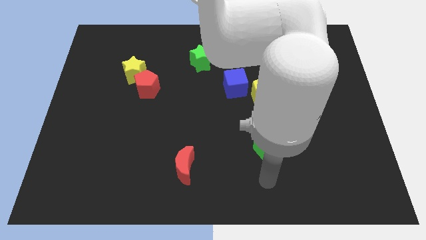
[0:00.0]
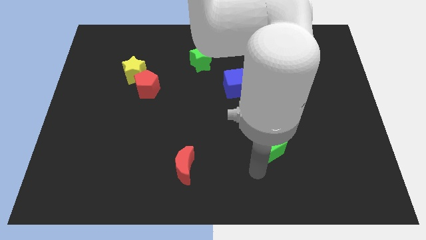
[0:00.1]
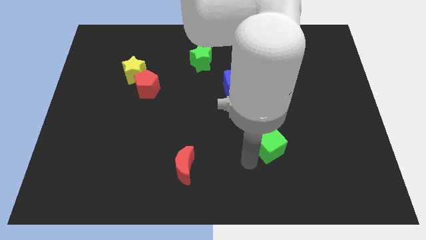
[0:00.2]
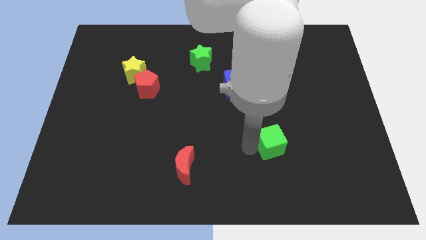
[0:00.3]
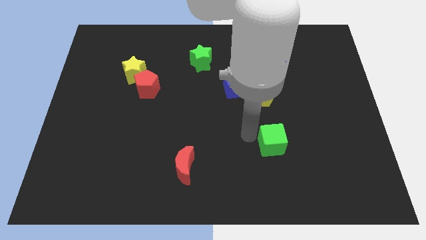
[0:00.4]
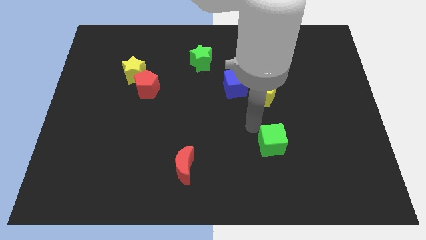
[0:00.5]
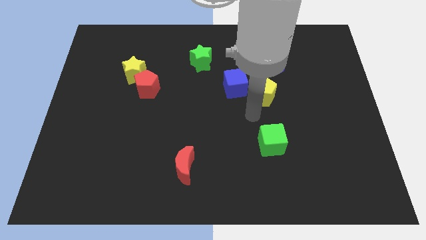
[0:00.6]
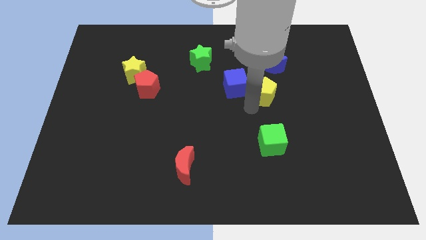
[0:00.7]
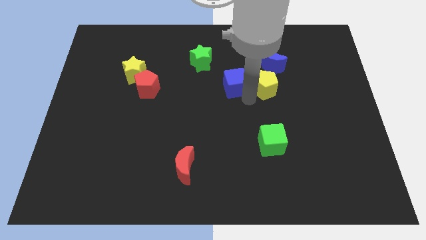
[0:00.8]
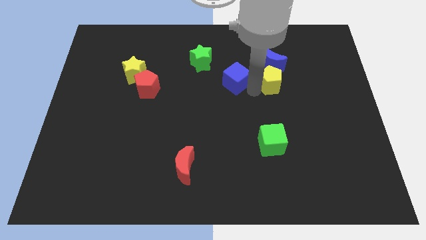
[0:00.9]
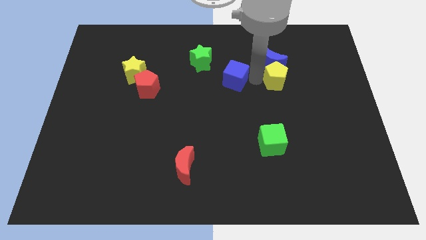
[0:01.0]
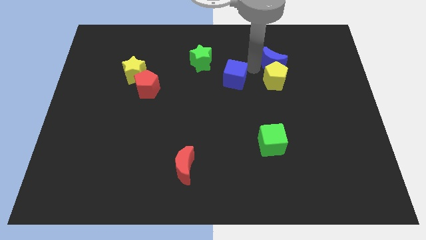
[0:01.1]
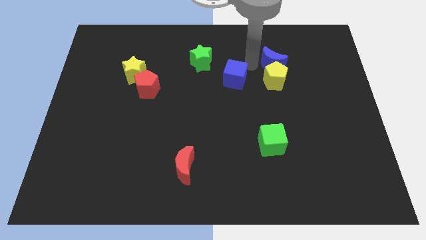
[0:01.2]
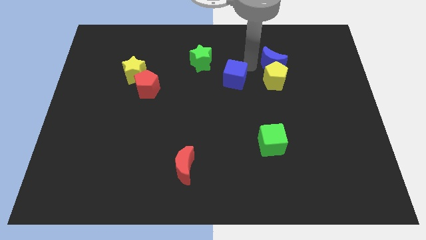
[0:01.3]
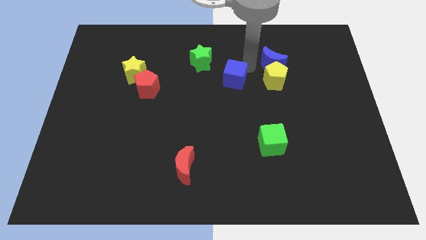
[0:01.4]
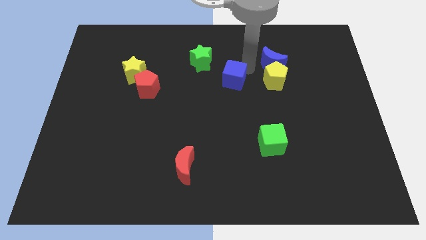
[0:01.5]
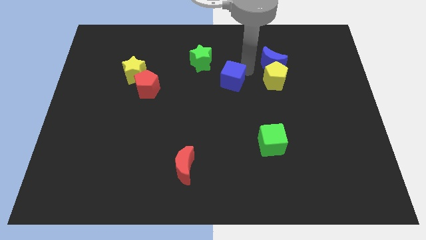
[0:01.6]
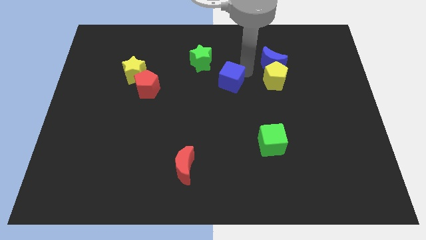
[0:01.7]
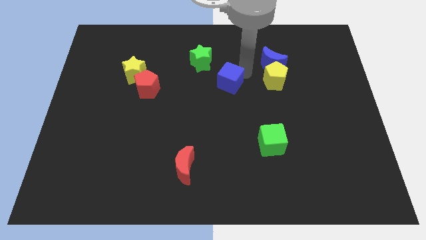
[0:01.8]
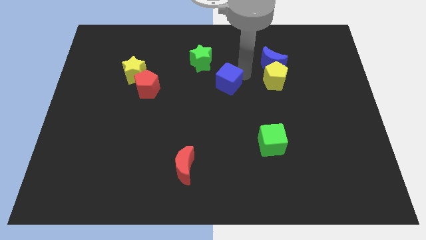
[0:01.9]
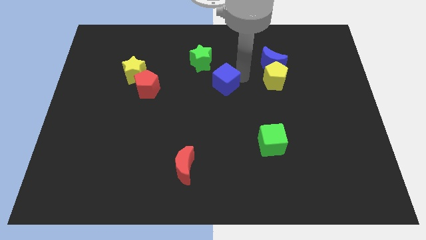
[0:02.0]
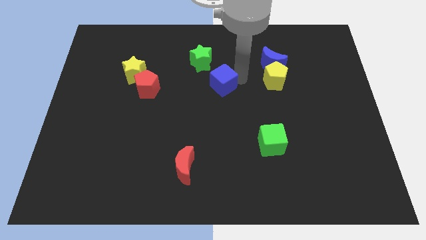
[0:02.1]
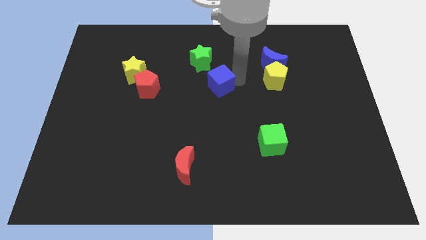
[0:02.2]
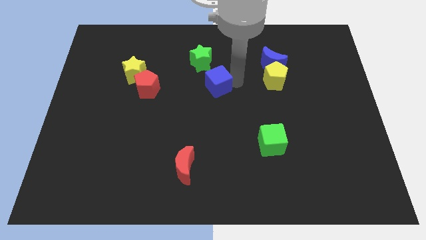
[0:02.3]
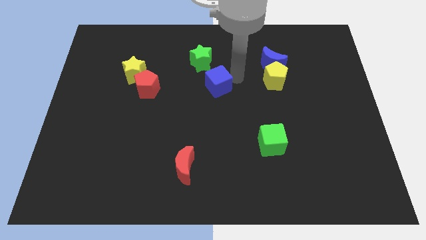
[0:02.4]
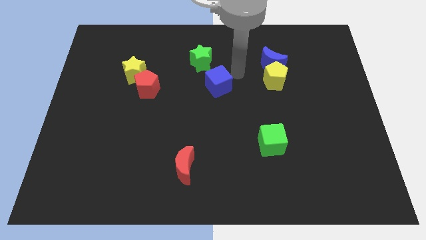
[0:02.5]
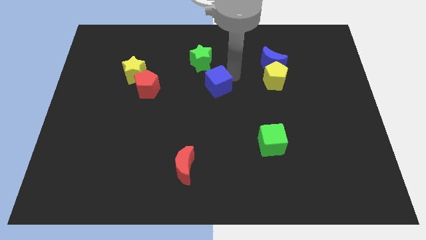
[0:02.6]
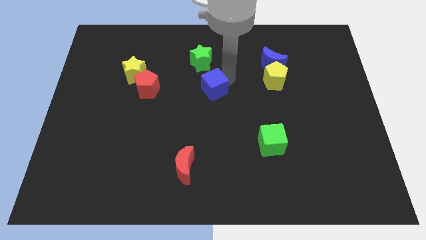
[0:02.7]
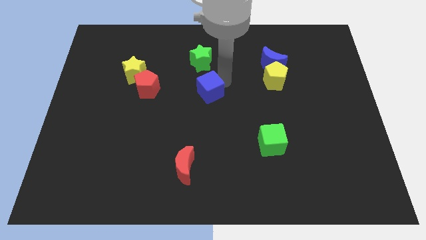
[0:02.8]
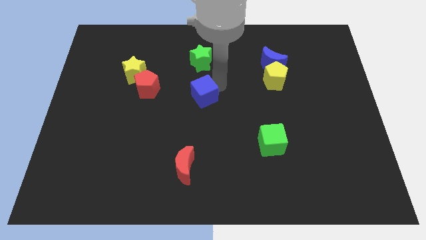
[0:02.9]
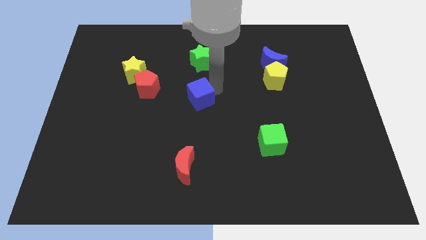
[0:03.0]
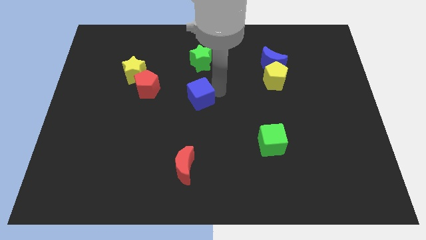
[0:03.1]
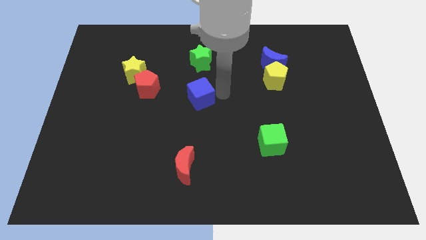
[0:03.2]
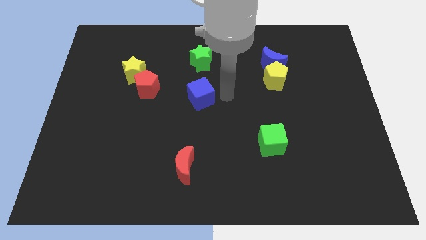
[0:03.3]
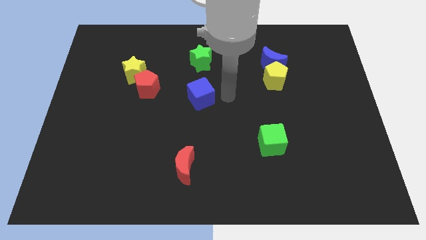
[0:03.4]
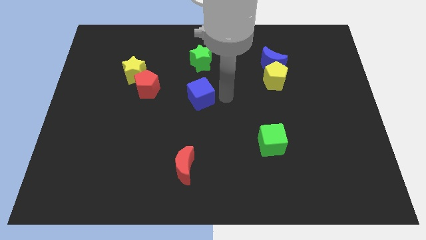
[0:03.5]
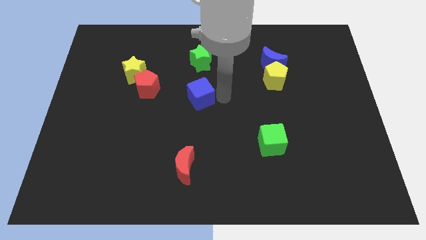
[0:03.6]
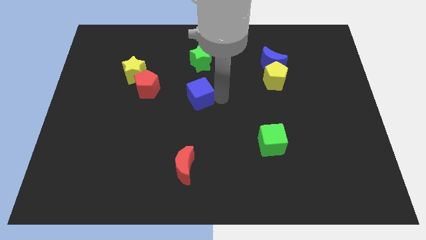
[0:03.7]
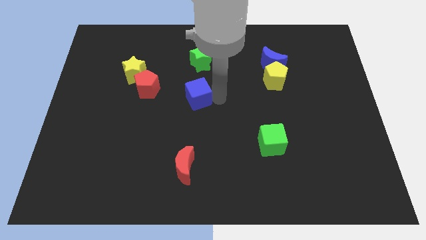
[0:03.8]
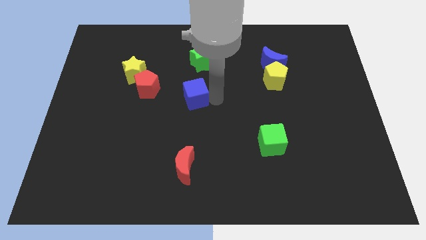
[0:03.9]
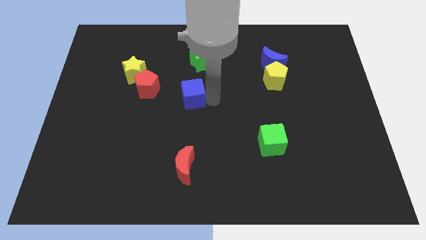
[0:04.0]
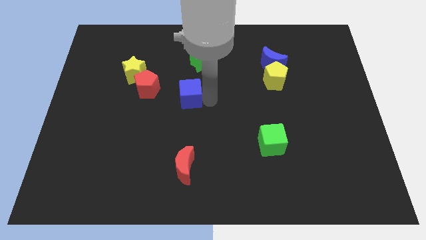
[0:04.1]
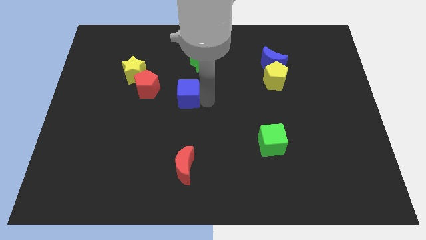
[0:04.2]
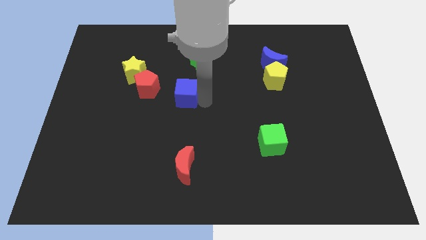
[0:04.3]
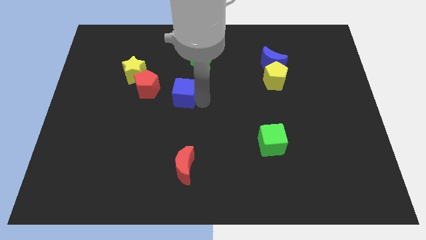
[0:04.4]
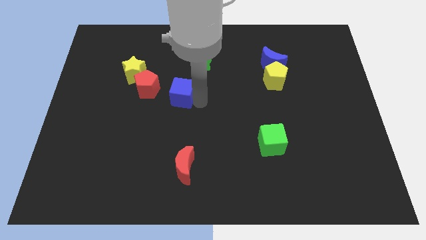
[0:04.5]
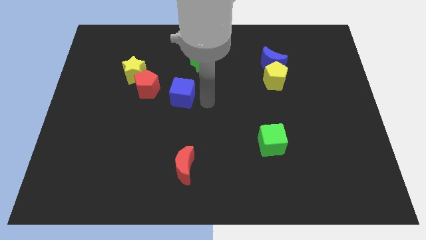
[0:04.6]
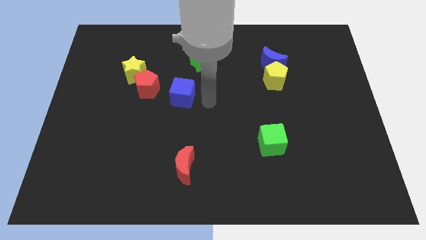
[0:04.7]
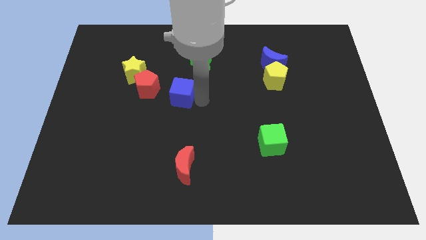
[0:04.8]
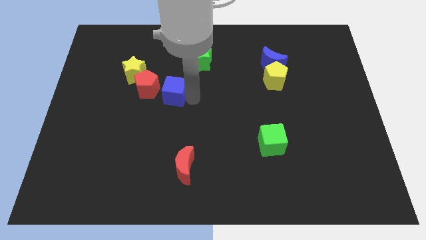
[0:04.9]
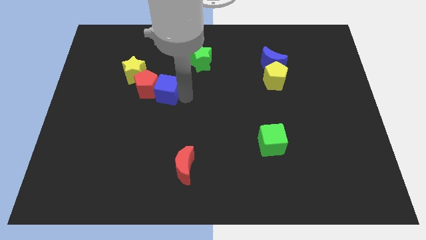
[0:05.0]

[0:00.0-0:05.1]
slide the blue cube next to the red pentagon

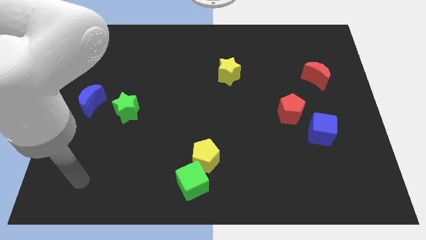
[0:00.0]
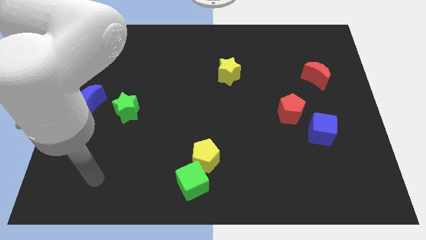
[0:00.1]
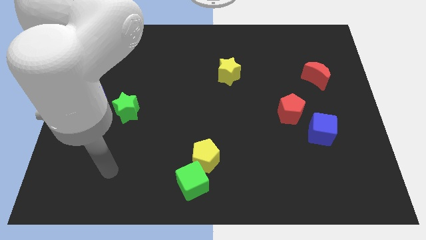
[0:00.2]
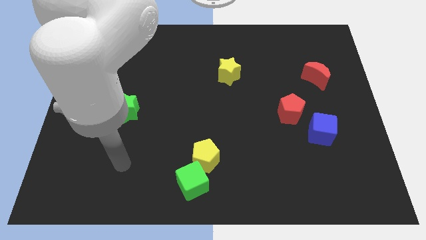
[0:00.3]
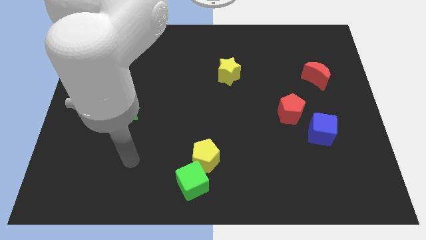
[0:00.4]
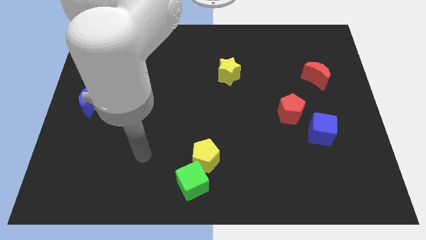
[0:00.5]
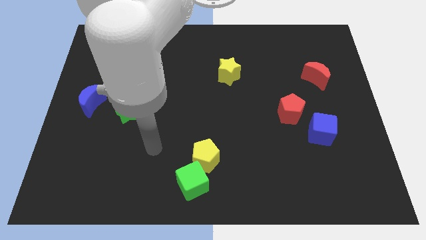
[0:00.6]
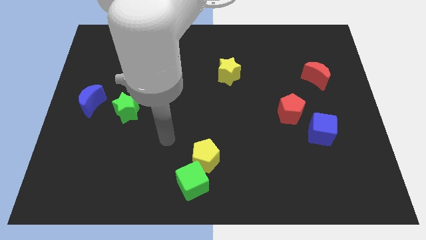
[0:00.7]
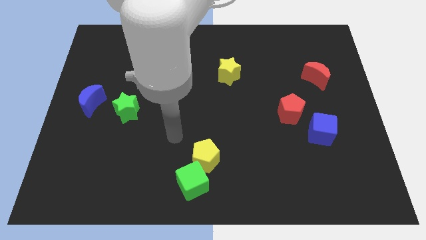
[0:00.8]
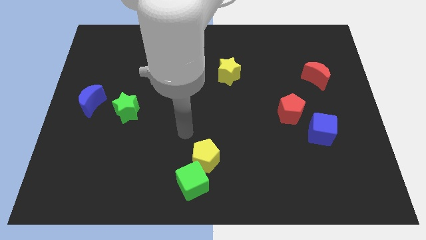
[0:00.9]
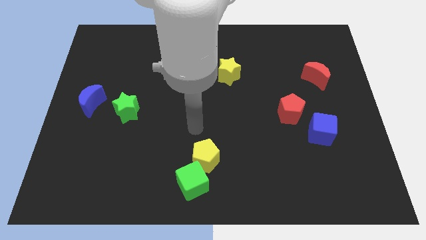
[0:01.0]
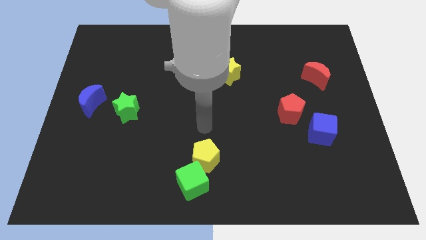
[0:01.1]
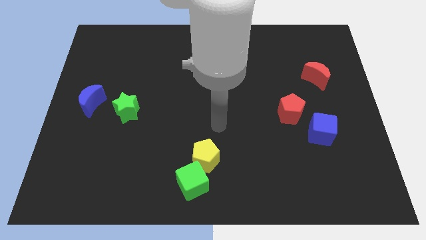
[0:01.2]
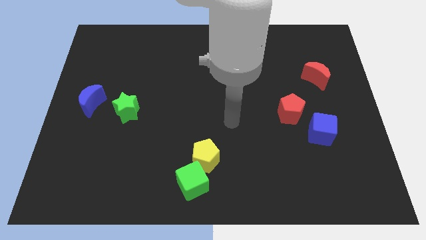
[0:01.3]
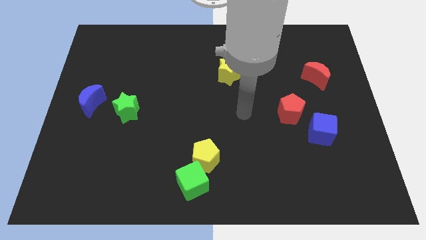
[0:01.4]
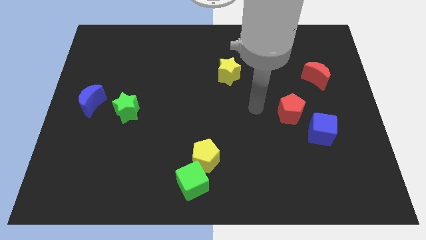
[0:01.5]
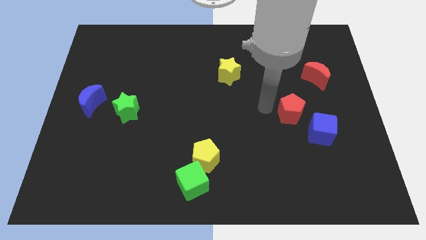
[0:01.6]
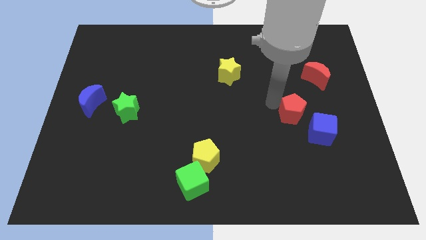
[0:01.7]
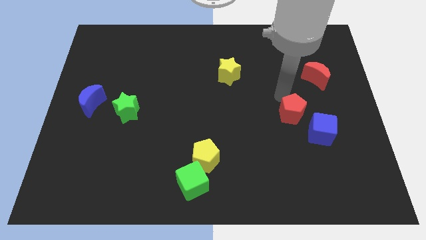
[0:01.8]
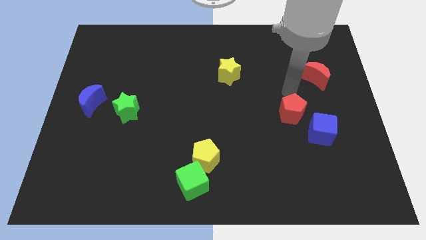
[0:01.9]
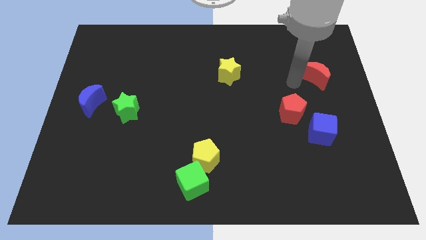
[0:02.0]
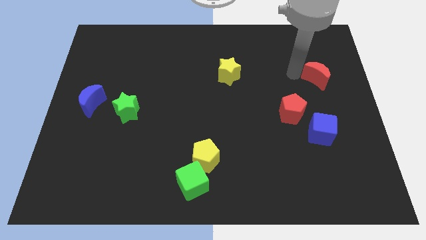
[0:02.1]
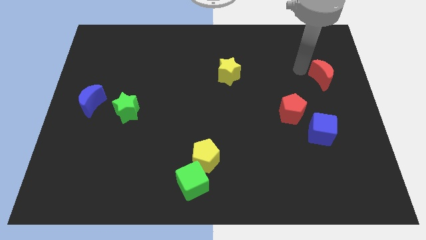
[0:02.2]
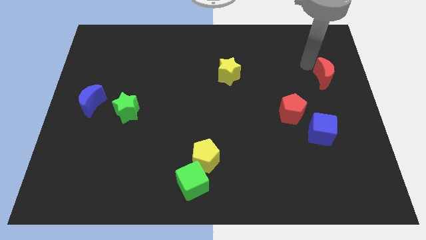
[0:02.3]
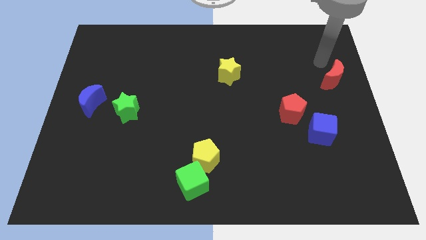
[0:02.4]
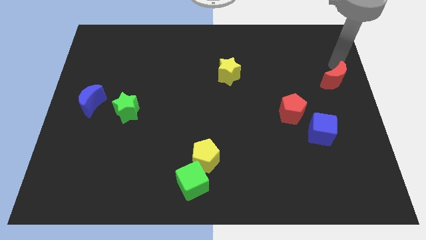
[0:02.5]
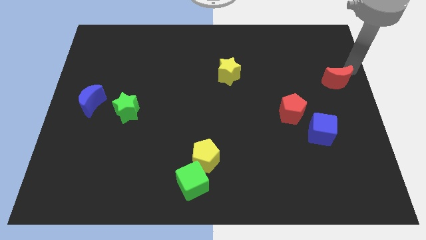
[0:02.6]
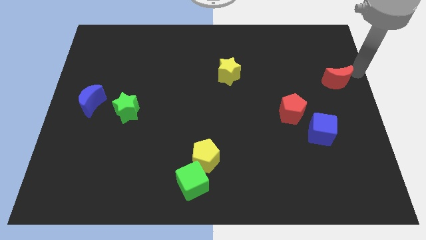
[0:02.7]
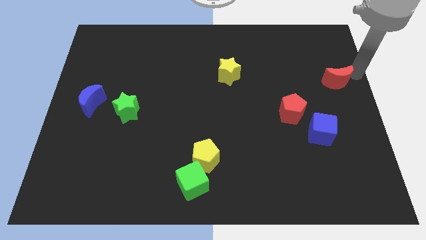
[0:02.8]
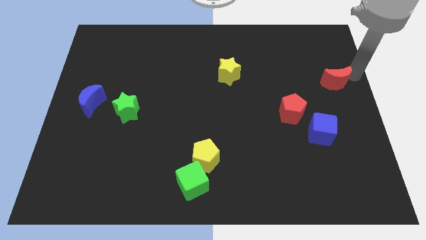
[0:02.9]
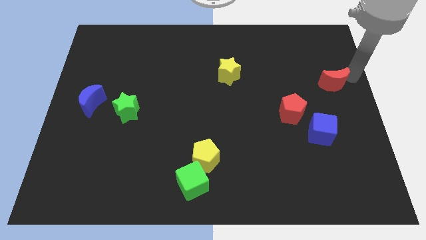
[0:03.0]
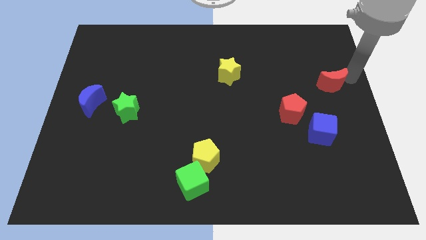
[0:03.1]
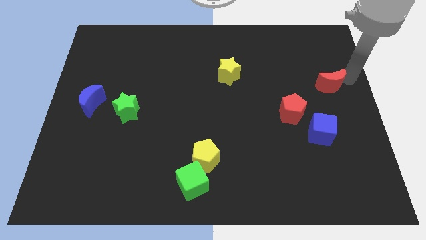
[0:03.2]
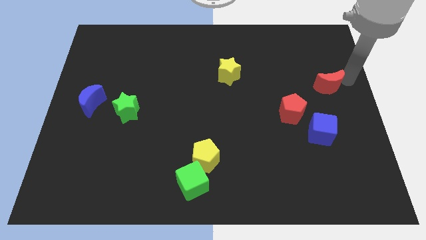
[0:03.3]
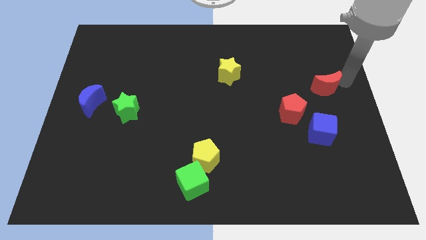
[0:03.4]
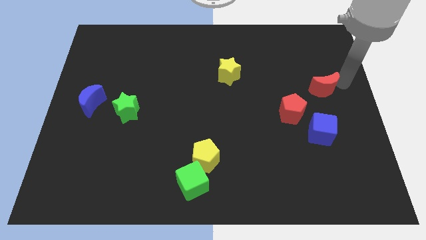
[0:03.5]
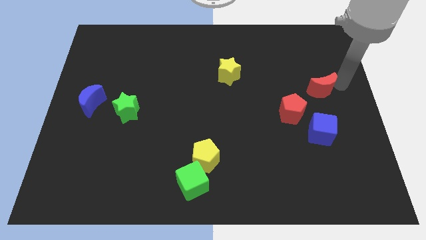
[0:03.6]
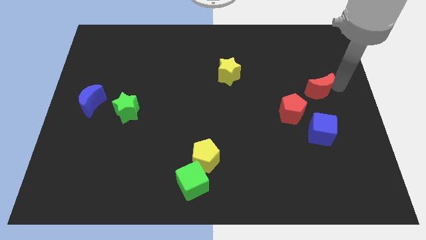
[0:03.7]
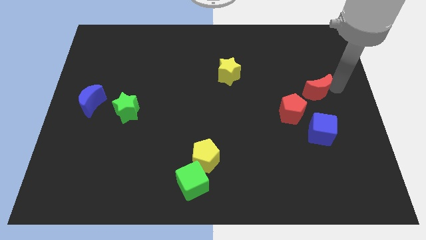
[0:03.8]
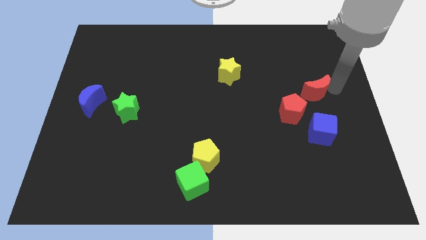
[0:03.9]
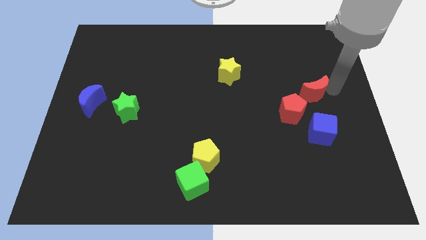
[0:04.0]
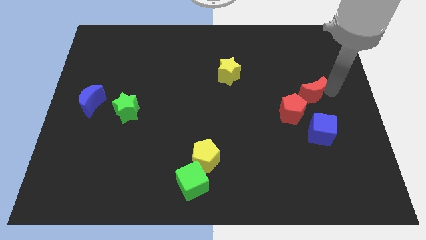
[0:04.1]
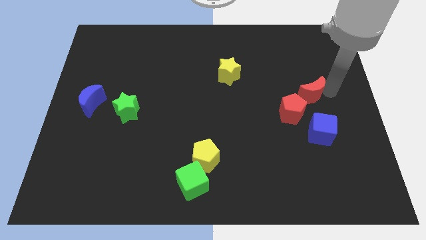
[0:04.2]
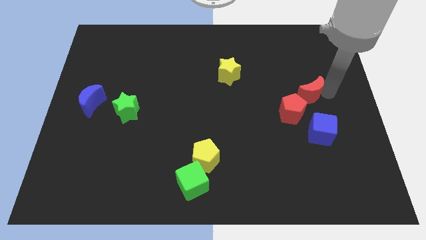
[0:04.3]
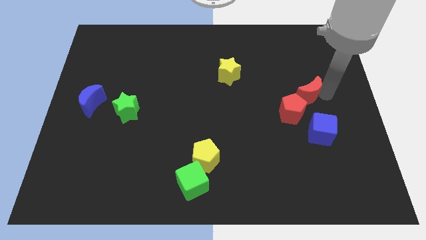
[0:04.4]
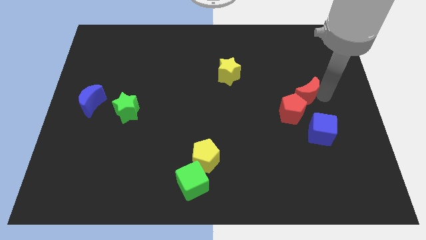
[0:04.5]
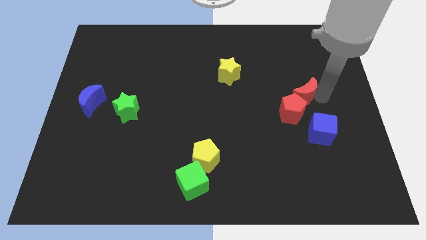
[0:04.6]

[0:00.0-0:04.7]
put the red moon next to the red pentagon
